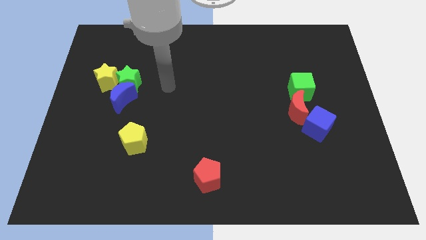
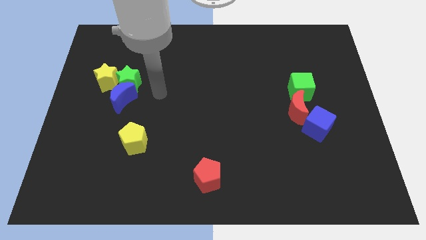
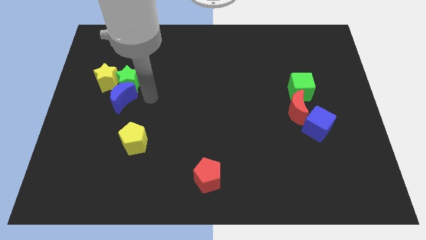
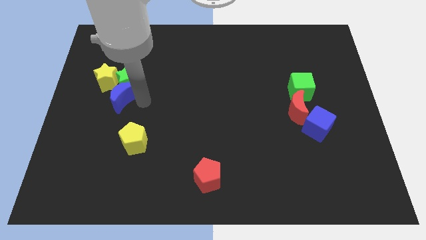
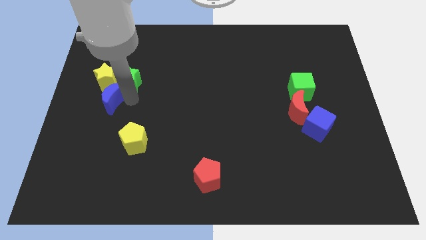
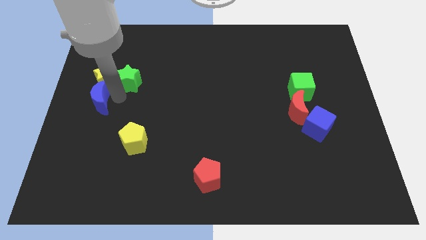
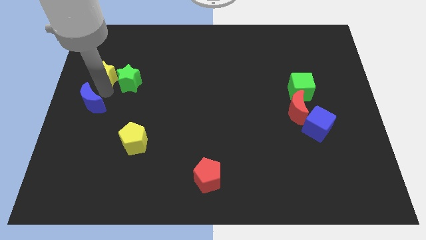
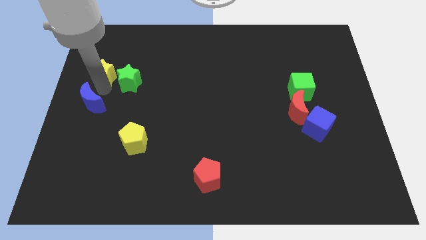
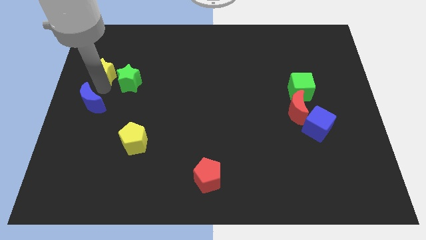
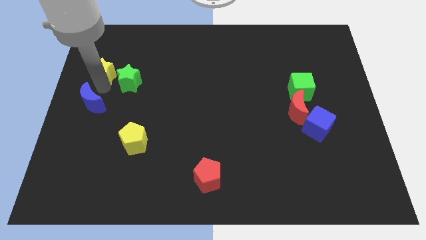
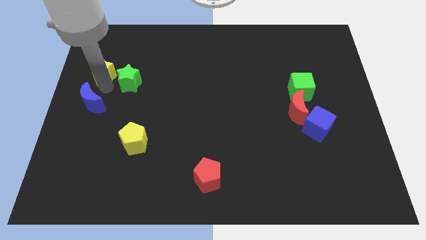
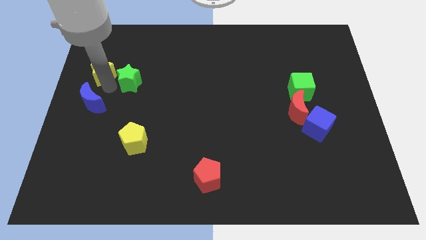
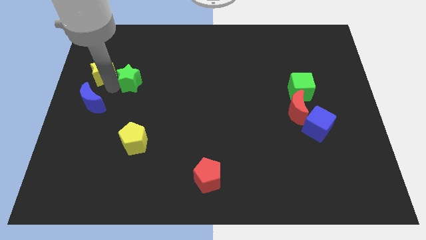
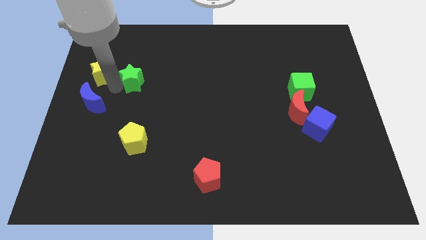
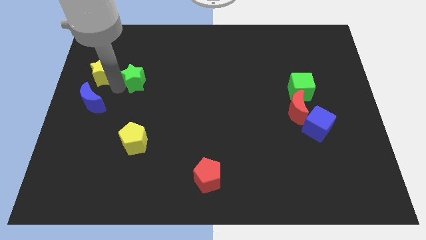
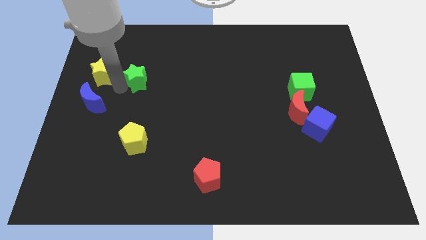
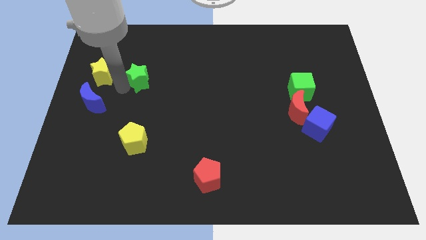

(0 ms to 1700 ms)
separate the green star from the blue moon and yellow star

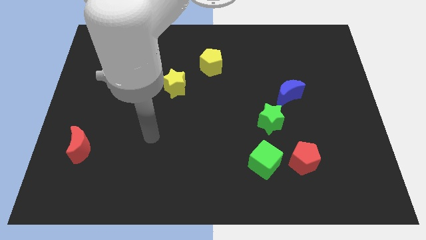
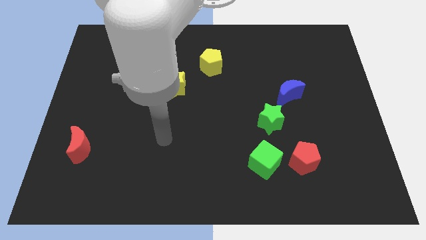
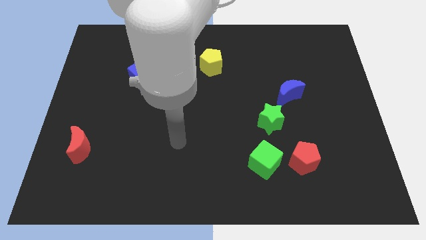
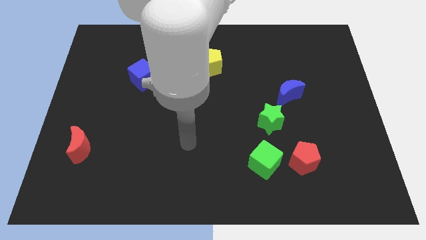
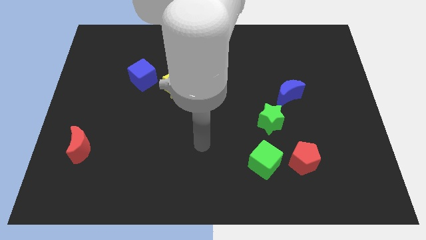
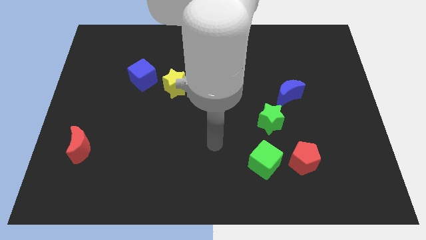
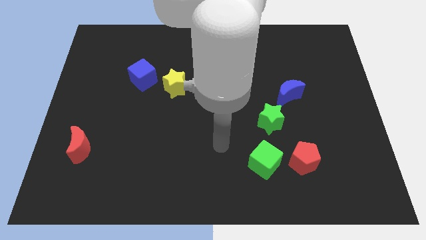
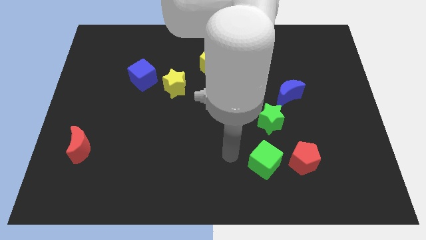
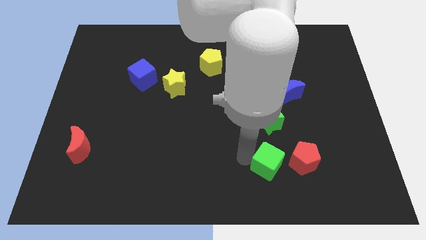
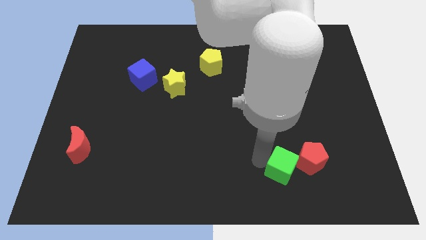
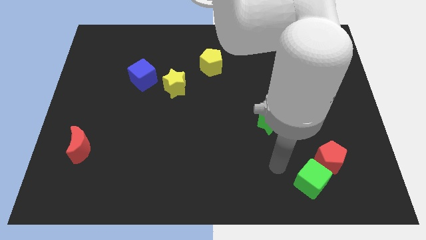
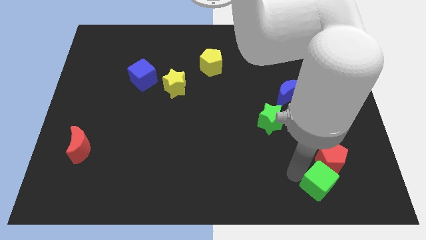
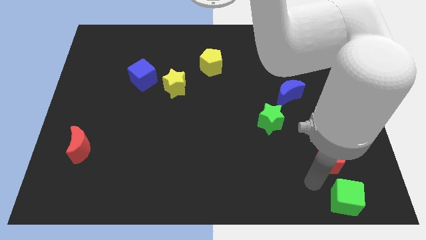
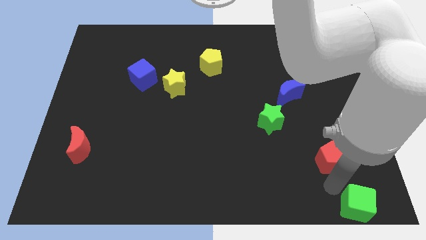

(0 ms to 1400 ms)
separate the red pentagon from the green cube

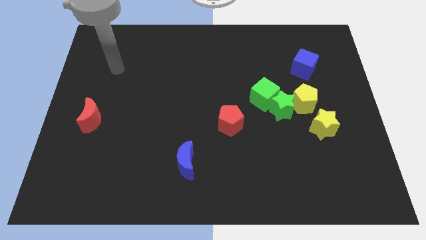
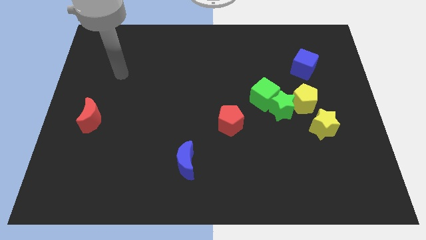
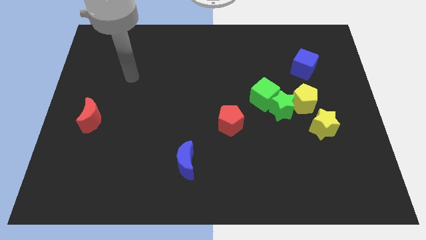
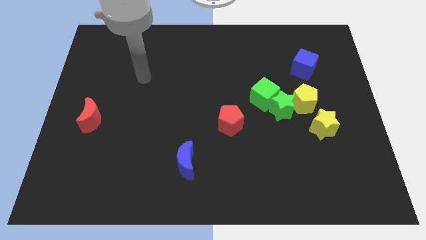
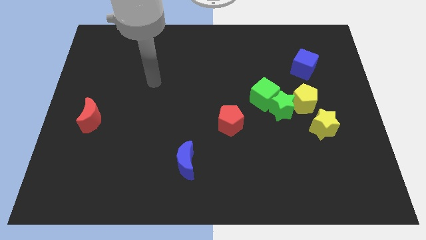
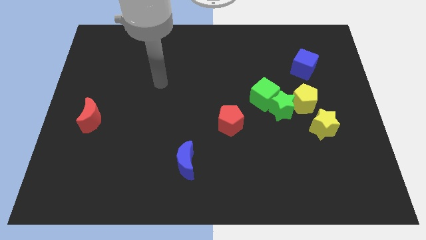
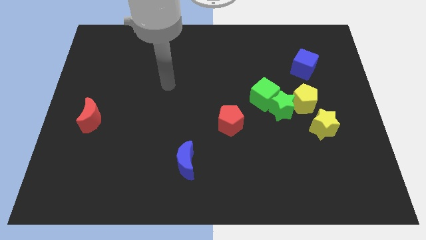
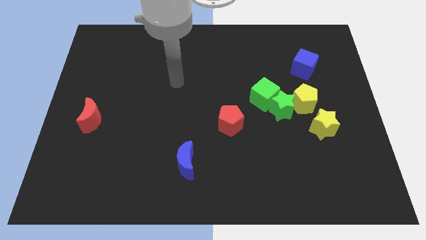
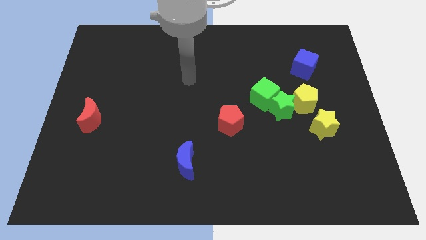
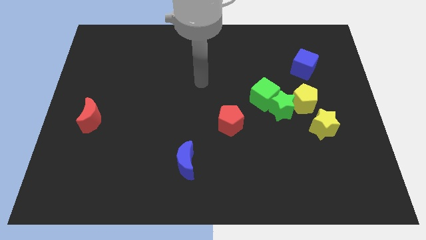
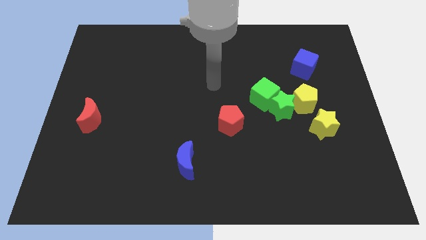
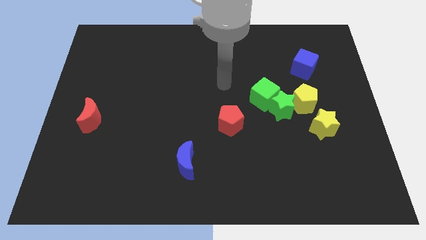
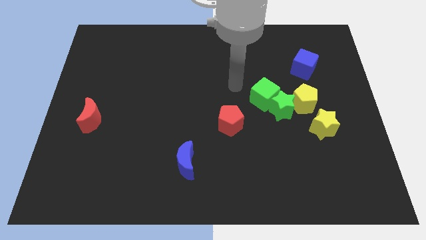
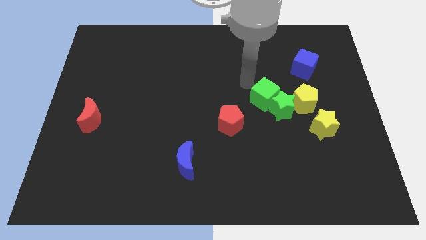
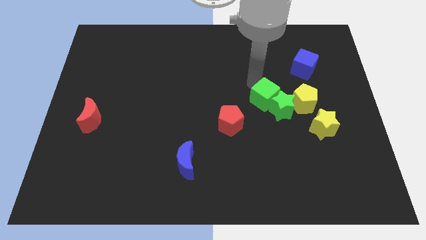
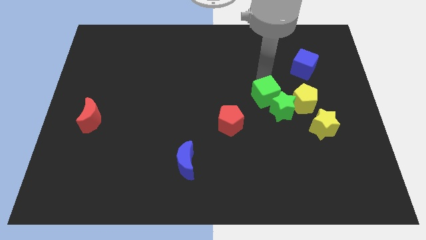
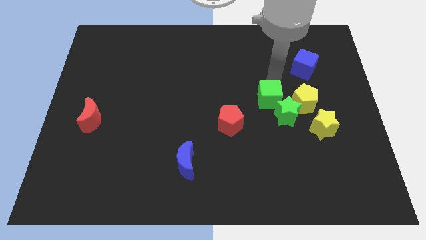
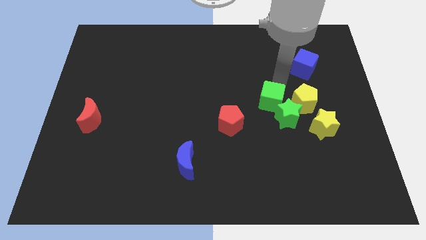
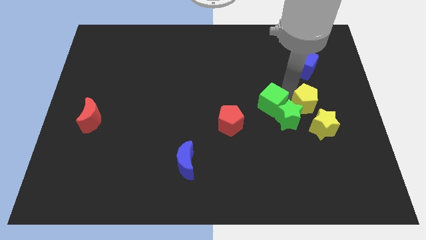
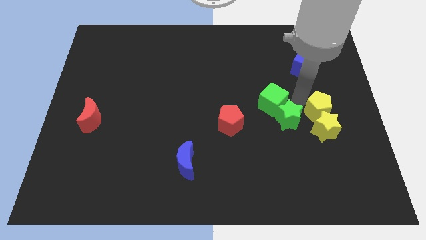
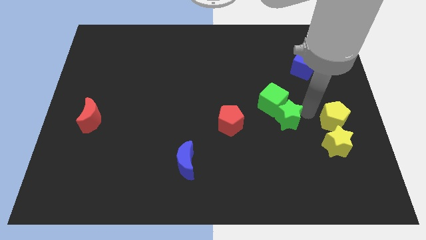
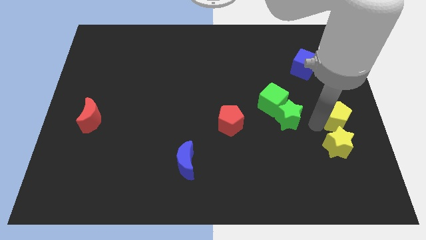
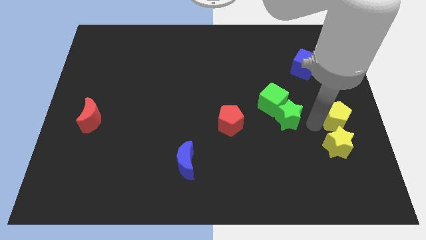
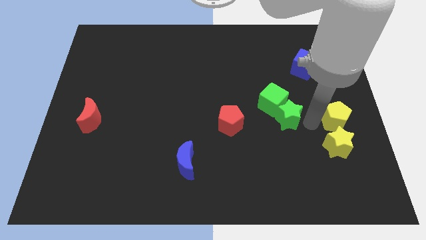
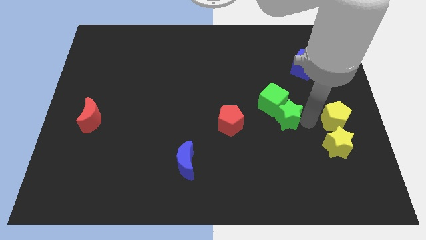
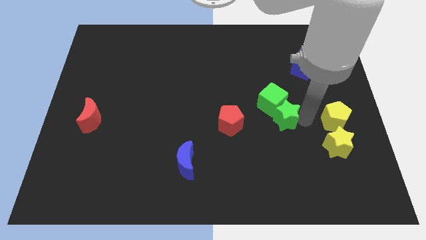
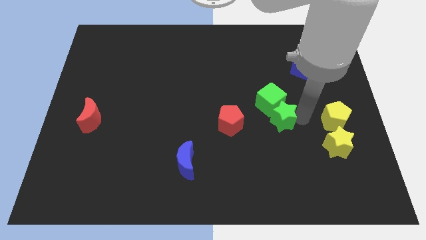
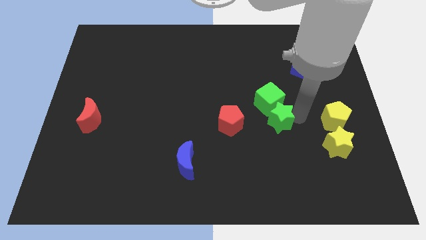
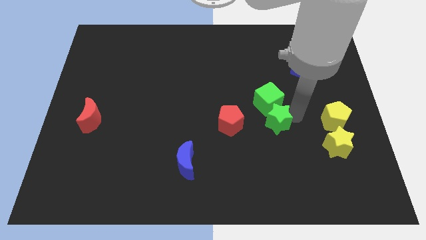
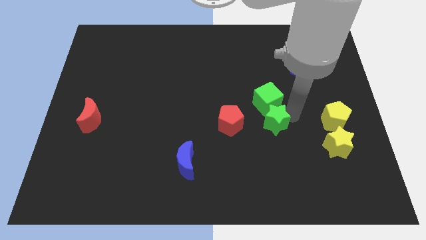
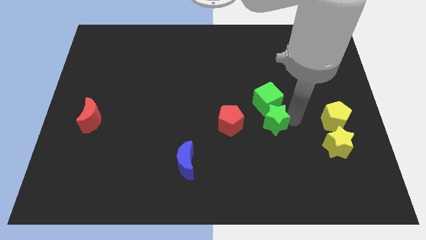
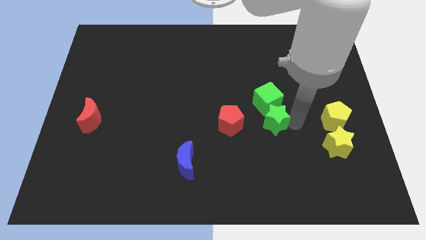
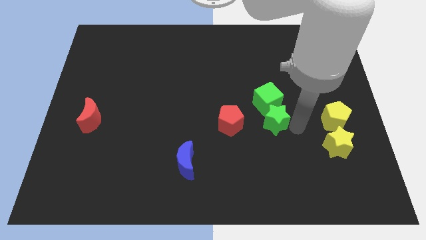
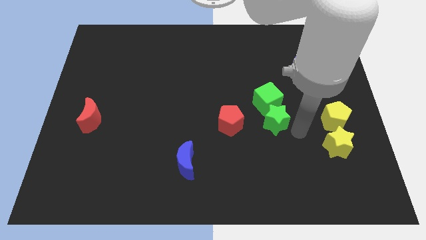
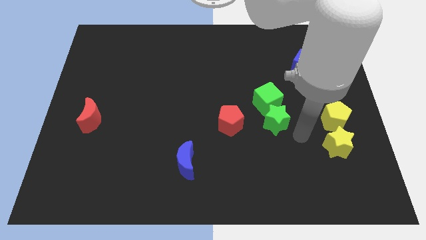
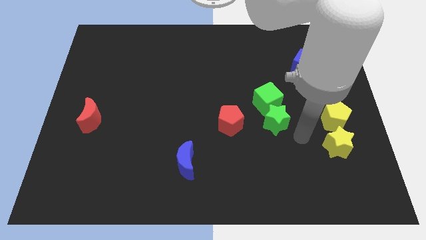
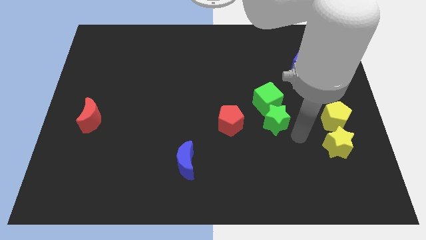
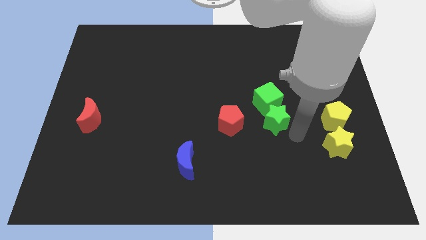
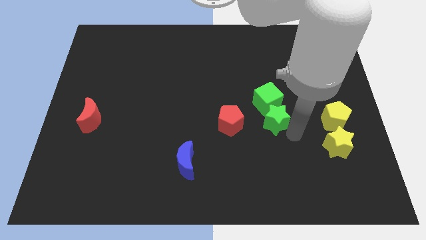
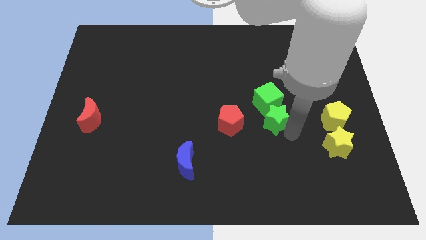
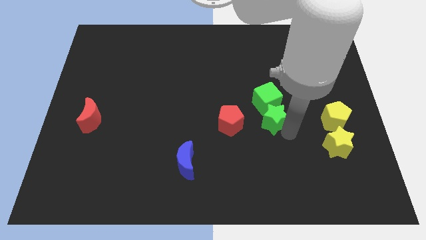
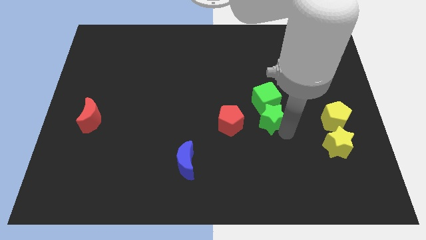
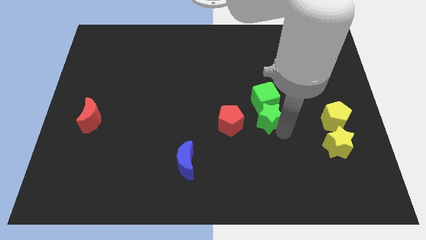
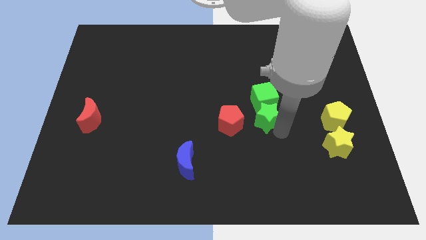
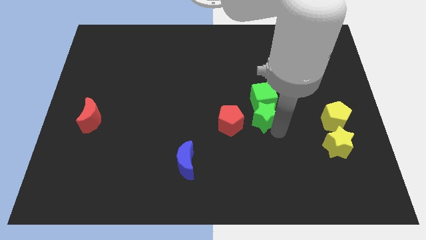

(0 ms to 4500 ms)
separate the green star from the clump

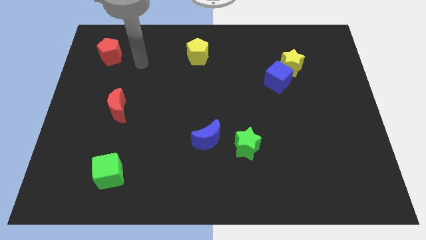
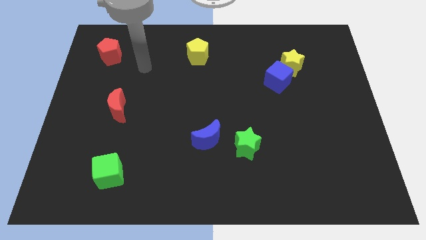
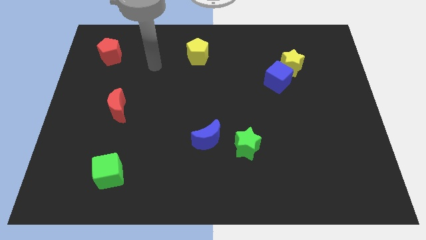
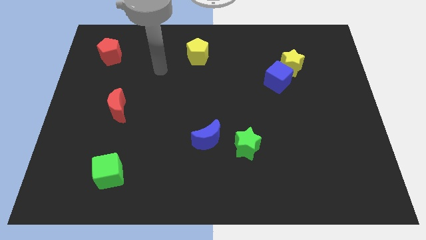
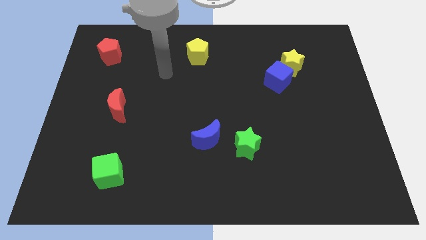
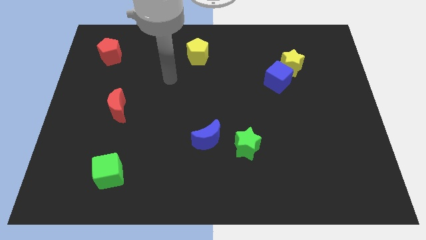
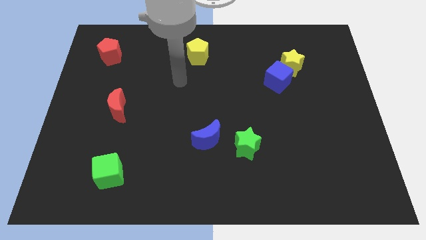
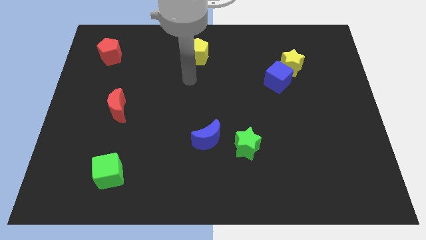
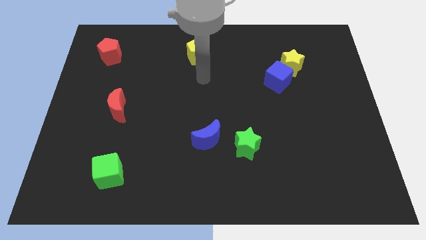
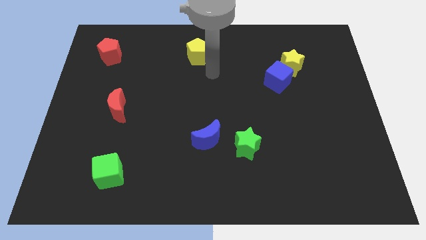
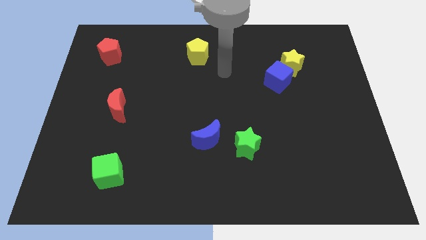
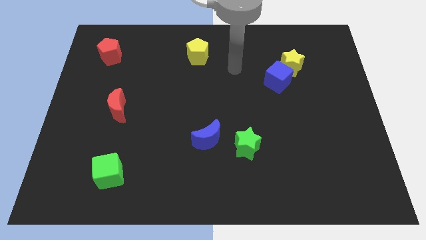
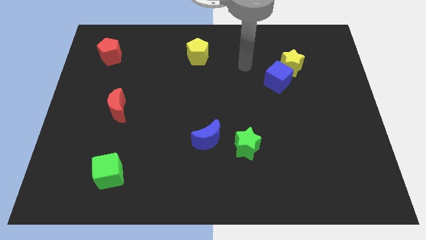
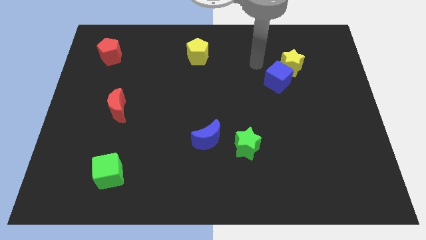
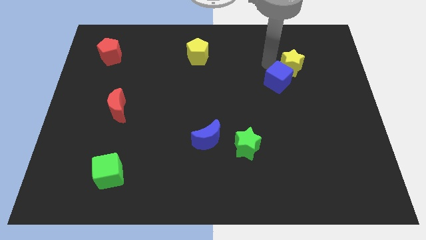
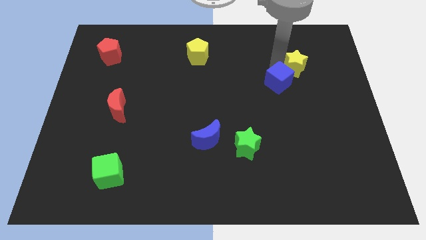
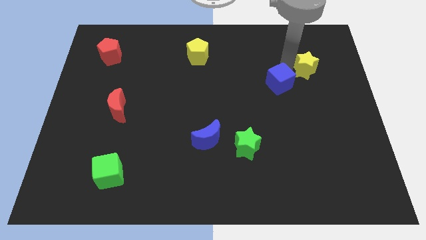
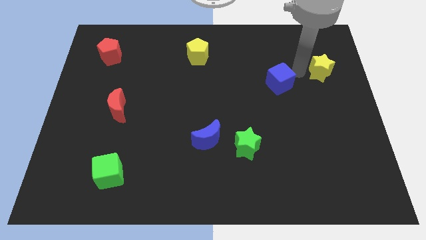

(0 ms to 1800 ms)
move the blue cube away from the yellow star
